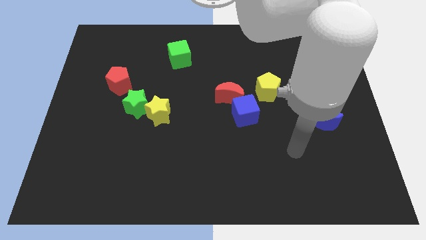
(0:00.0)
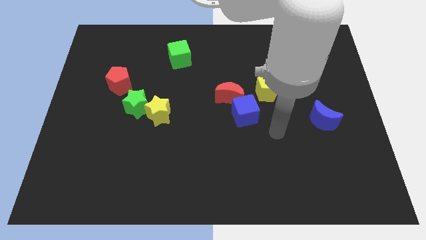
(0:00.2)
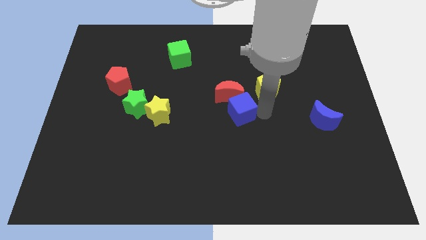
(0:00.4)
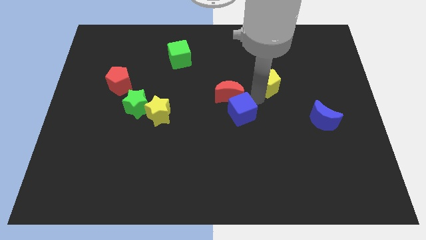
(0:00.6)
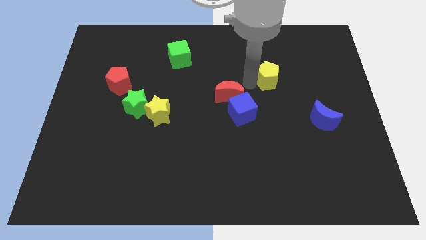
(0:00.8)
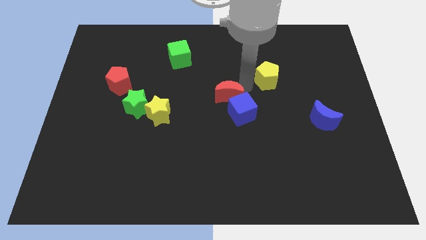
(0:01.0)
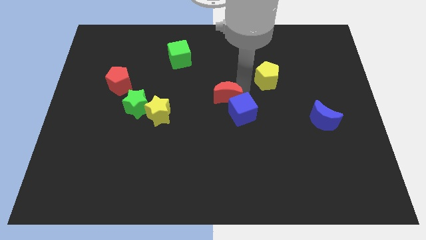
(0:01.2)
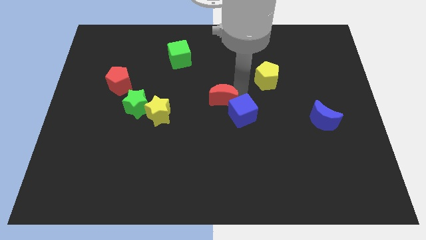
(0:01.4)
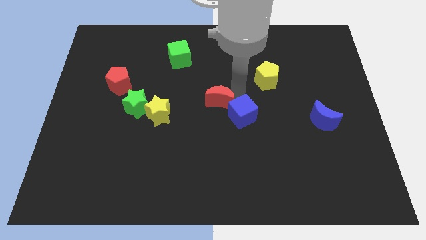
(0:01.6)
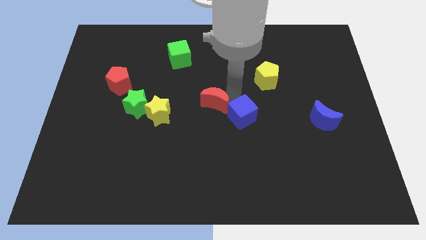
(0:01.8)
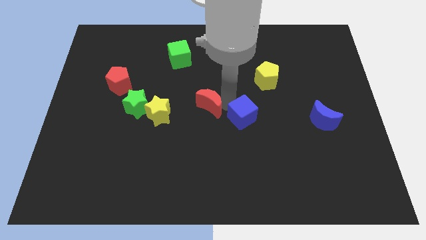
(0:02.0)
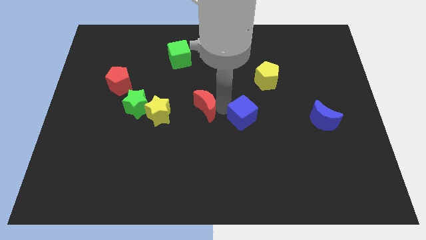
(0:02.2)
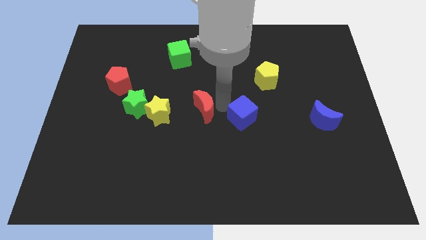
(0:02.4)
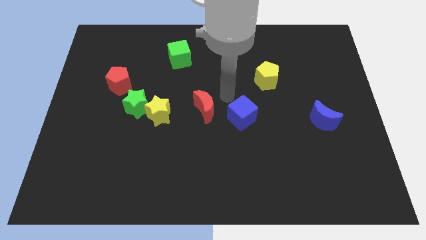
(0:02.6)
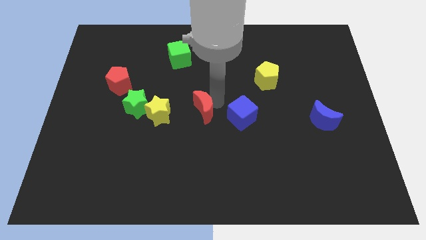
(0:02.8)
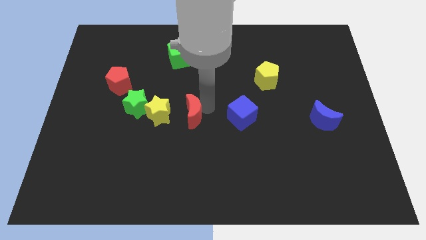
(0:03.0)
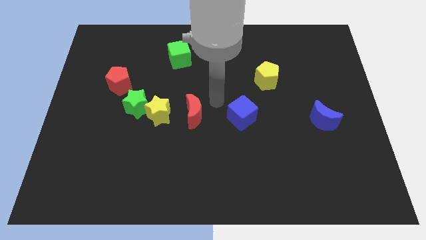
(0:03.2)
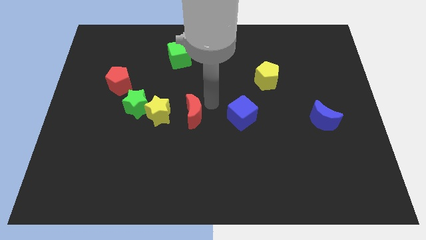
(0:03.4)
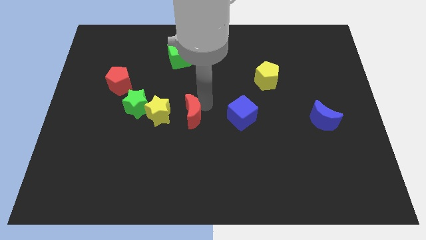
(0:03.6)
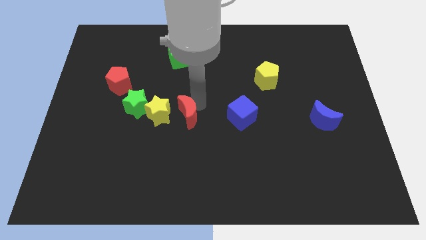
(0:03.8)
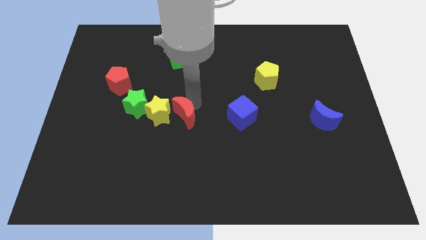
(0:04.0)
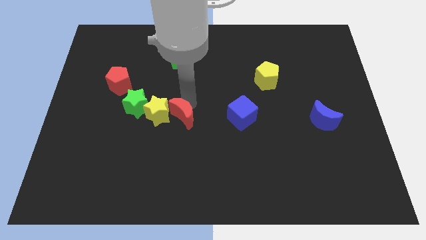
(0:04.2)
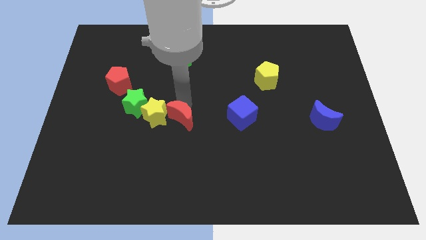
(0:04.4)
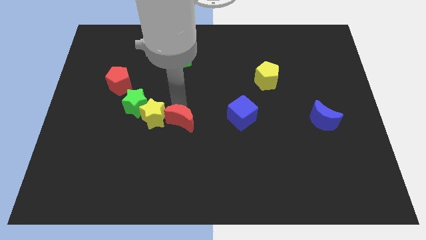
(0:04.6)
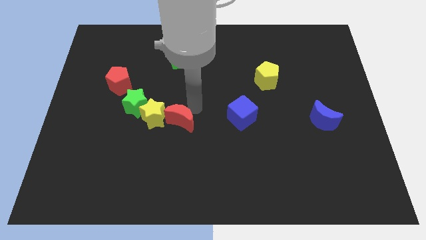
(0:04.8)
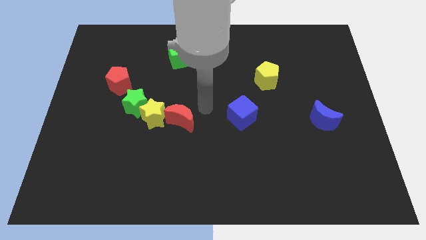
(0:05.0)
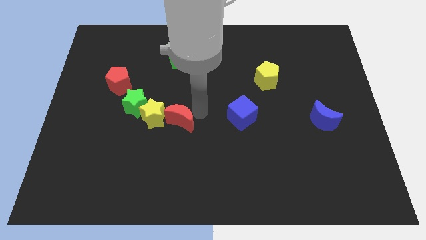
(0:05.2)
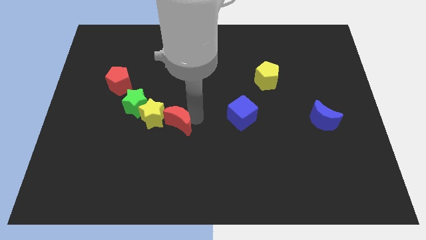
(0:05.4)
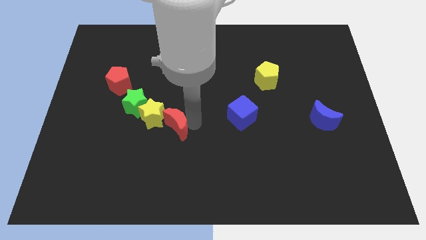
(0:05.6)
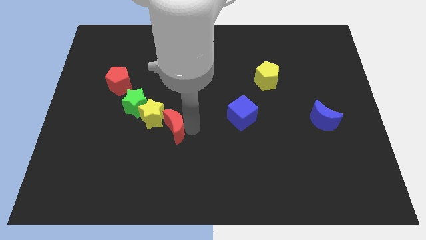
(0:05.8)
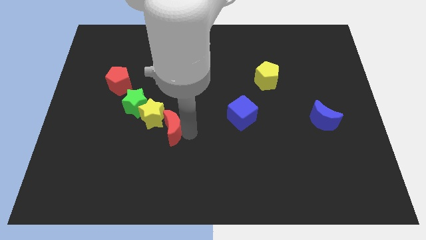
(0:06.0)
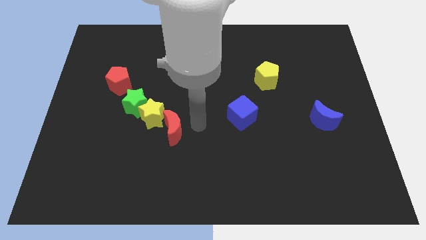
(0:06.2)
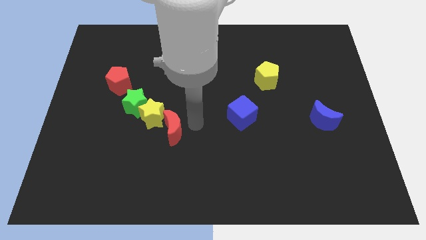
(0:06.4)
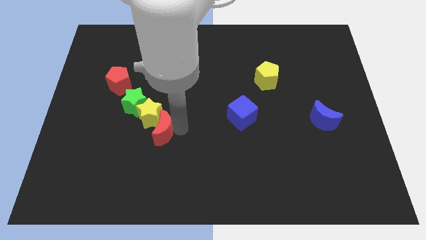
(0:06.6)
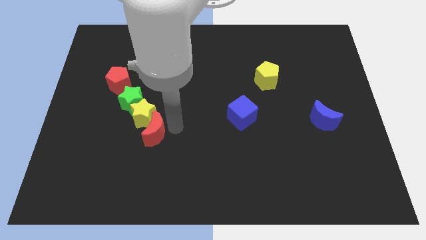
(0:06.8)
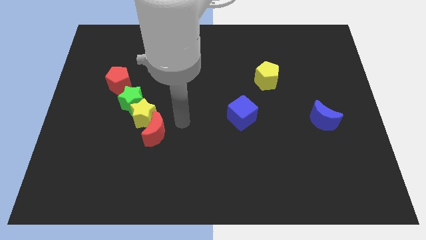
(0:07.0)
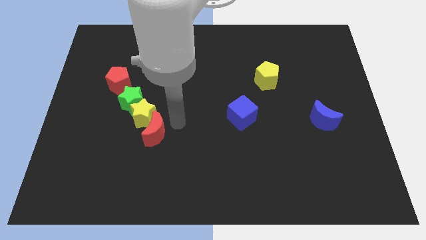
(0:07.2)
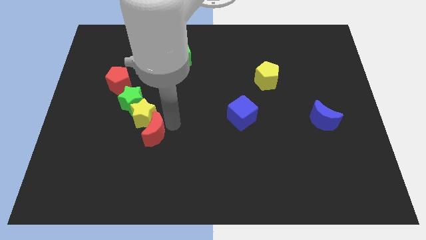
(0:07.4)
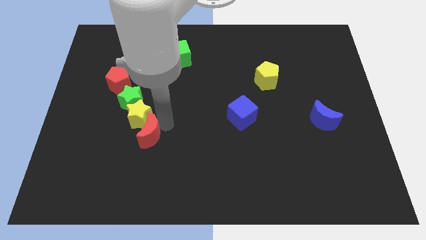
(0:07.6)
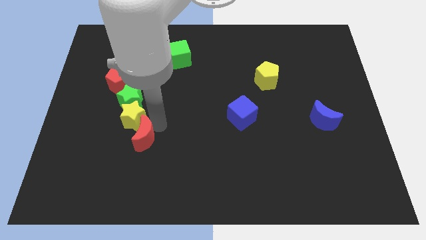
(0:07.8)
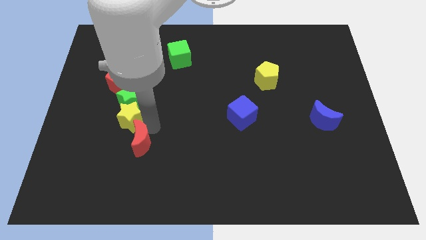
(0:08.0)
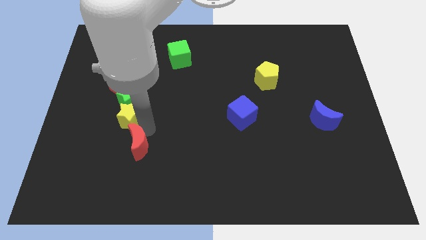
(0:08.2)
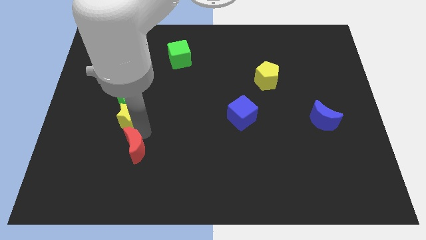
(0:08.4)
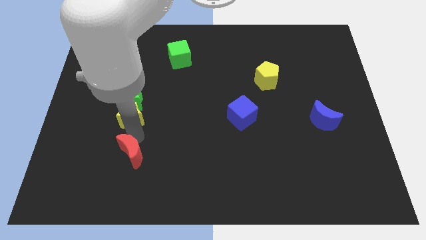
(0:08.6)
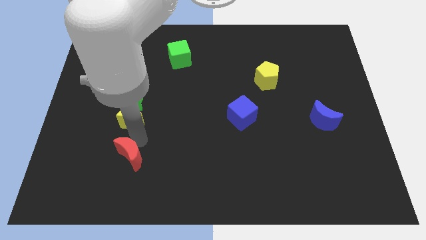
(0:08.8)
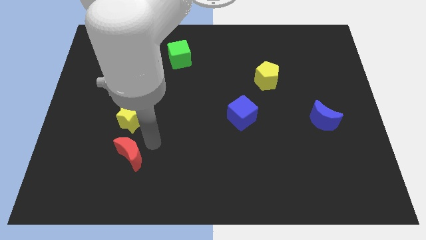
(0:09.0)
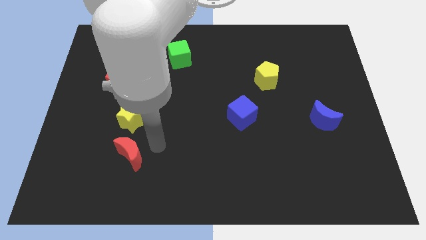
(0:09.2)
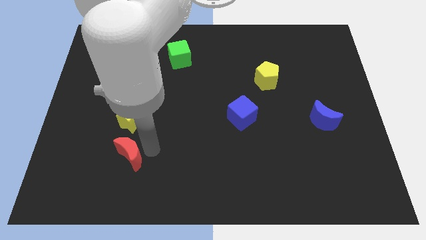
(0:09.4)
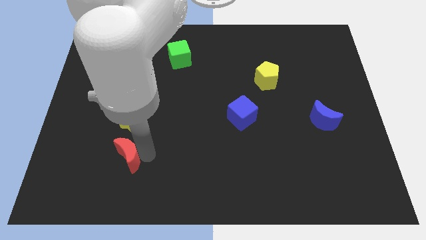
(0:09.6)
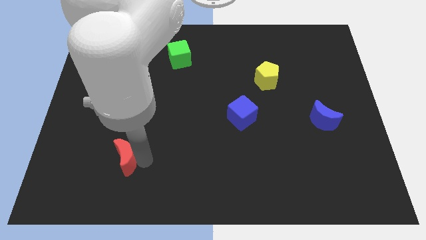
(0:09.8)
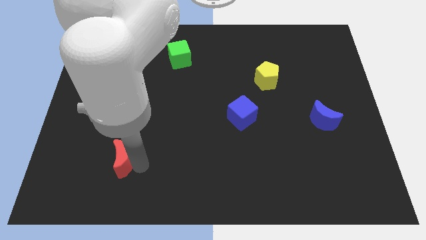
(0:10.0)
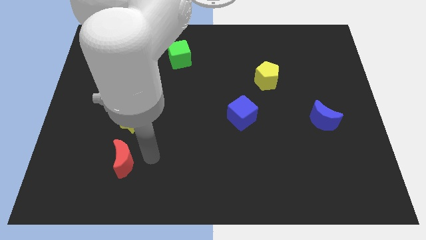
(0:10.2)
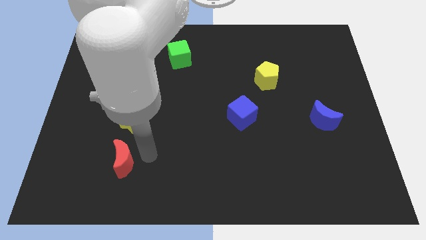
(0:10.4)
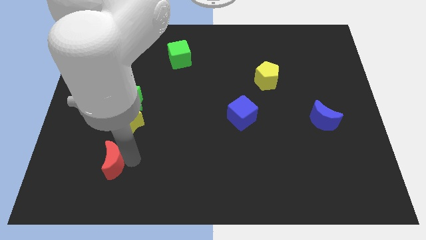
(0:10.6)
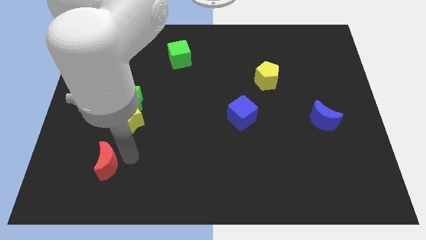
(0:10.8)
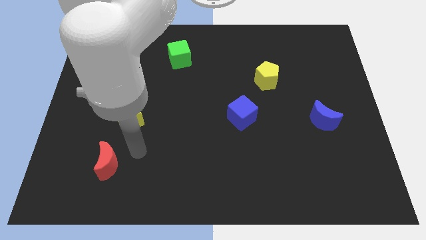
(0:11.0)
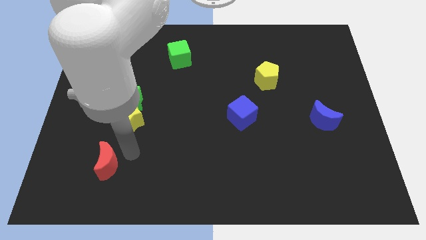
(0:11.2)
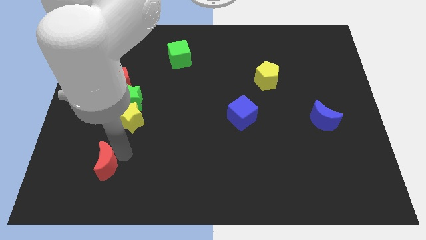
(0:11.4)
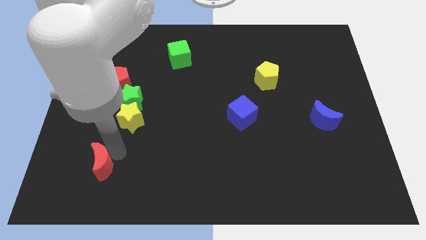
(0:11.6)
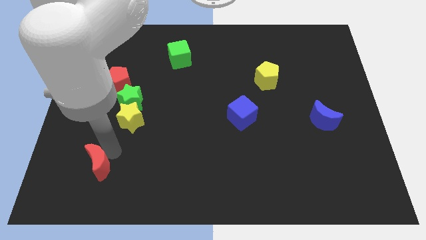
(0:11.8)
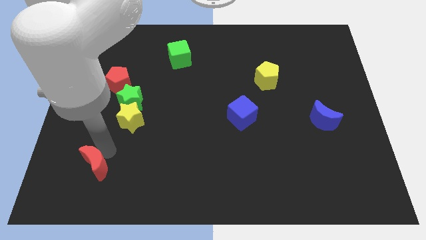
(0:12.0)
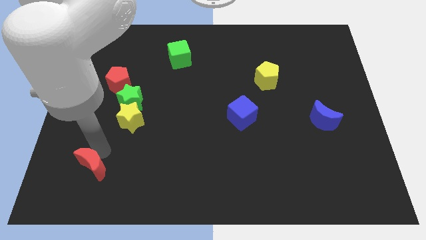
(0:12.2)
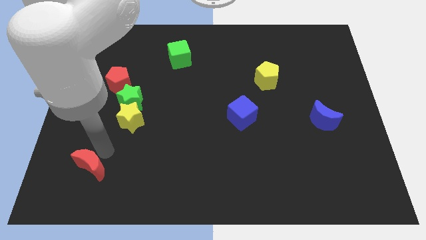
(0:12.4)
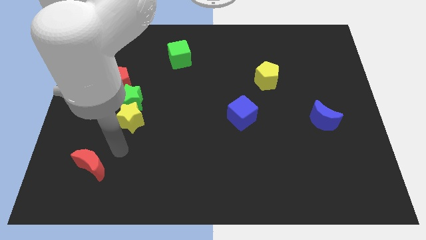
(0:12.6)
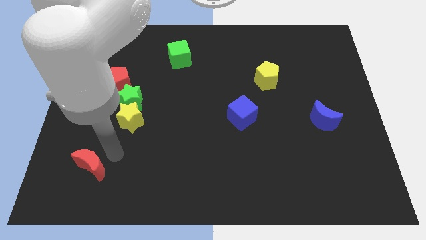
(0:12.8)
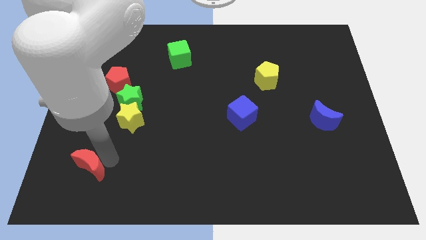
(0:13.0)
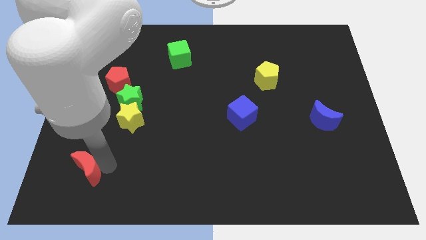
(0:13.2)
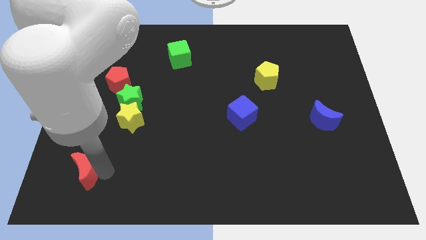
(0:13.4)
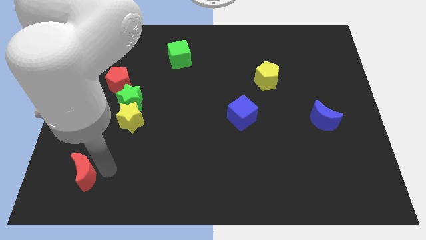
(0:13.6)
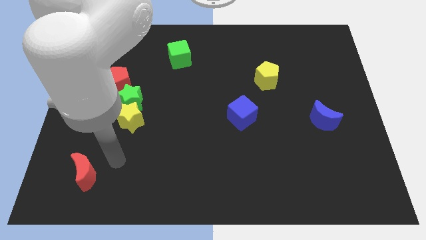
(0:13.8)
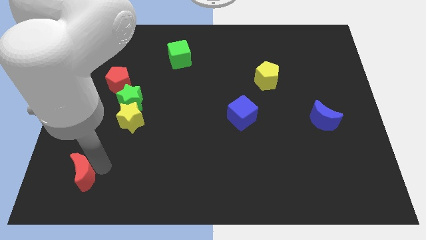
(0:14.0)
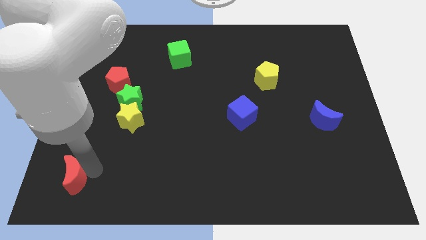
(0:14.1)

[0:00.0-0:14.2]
move the red moon to the bottom left of the board
